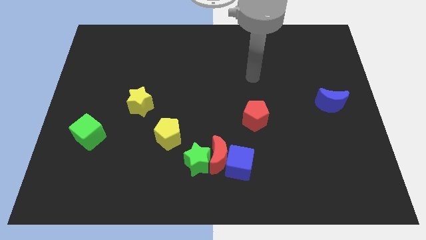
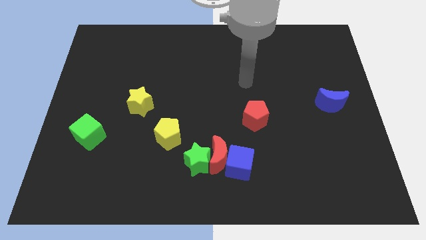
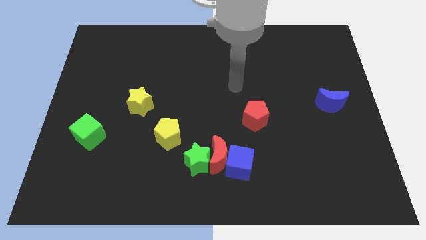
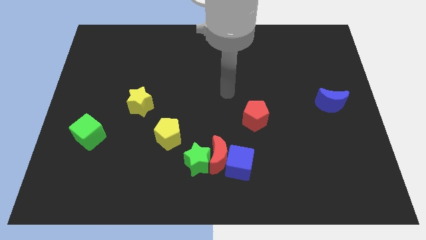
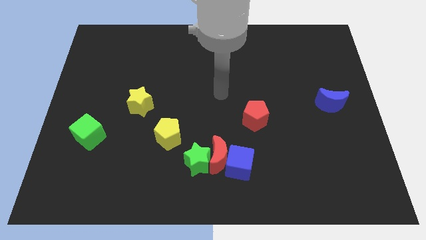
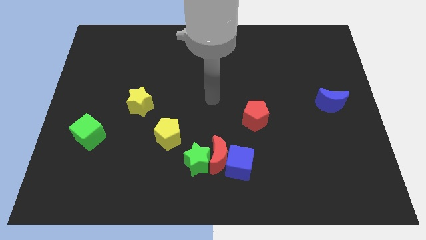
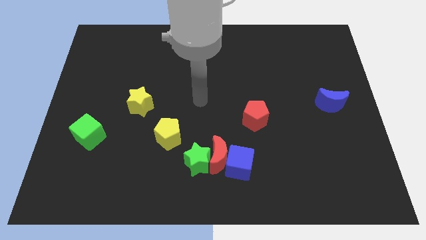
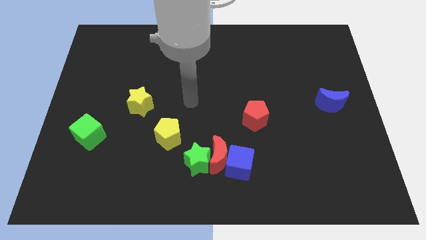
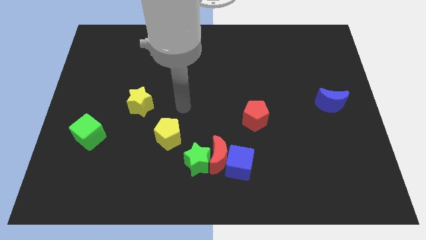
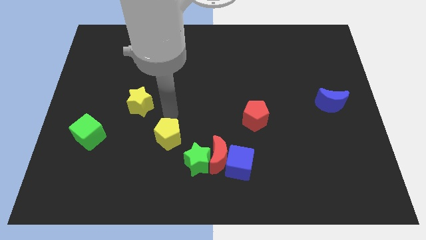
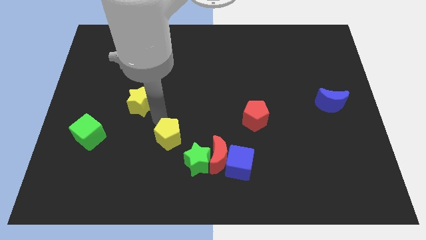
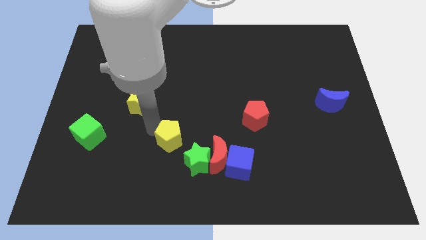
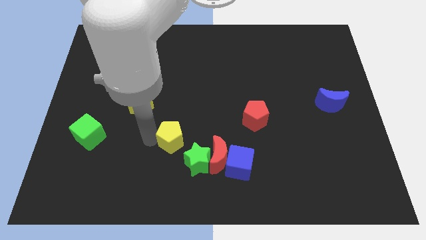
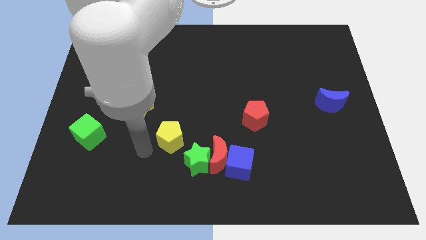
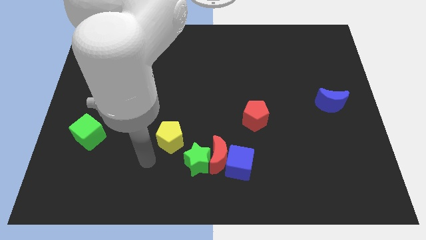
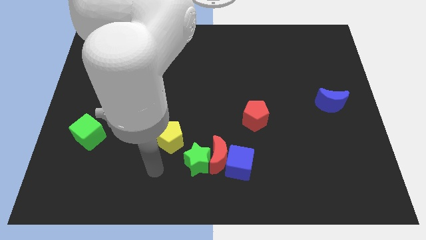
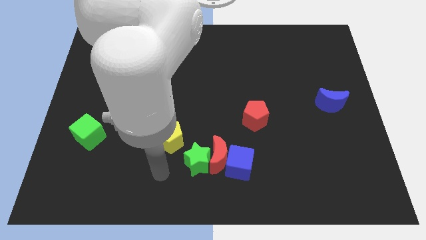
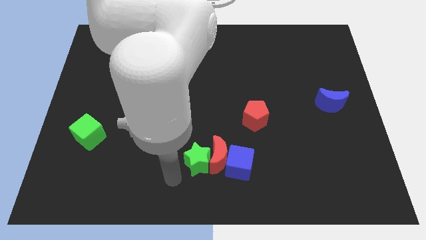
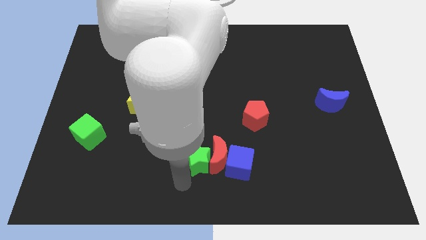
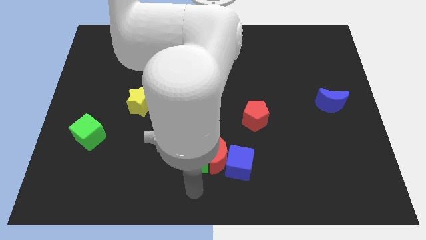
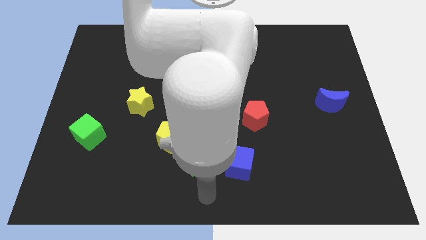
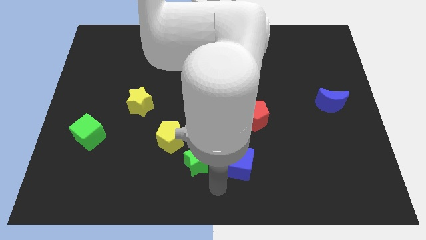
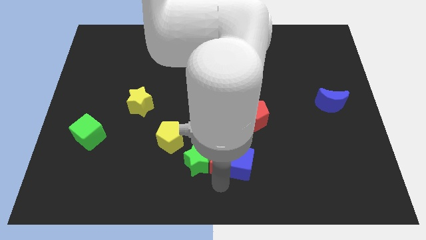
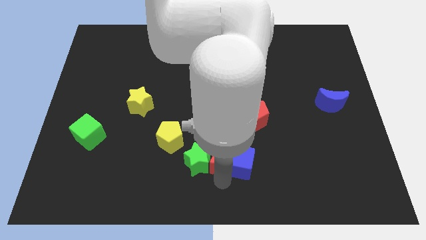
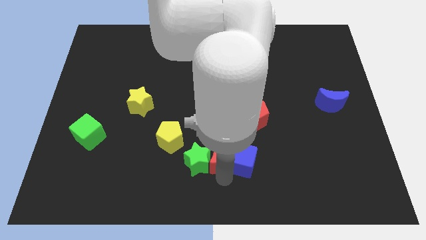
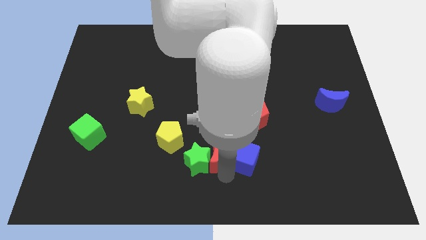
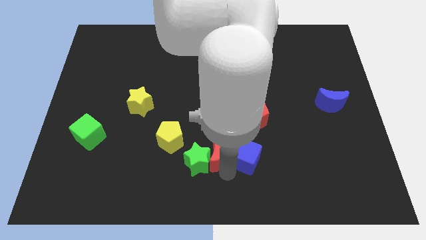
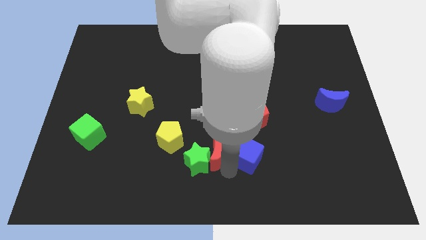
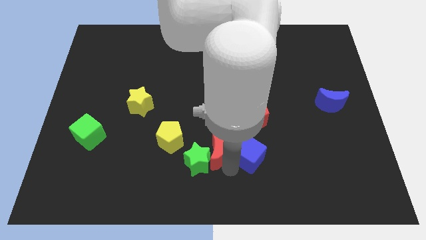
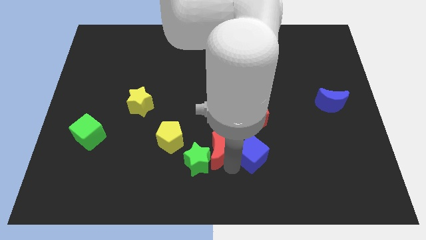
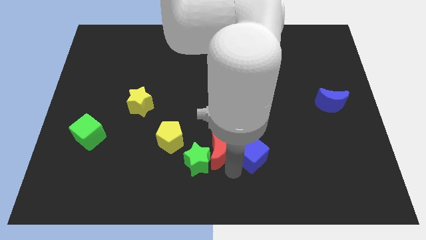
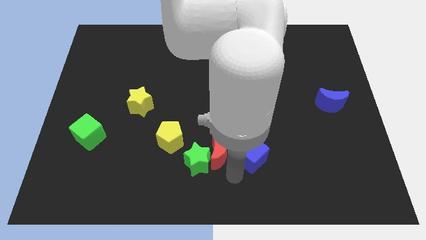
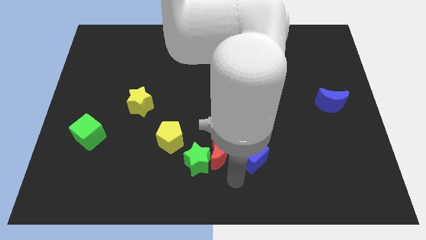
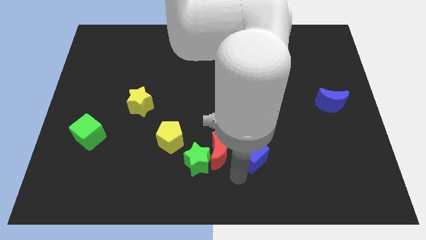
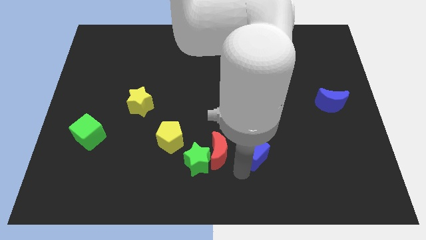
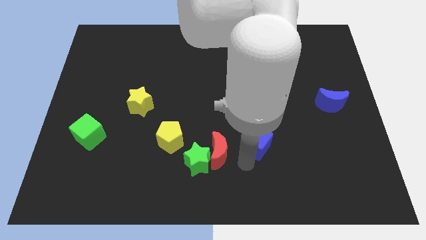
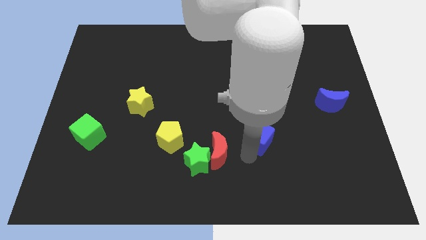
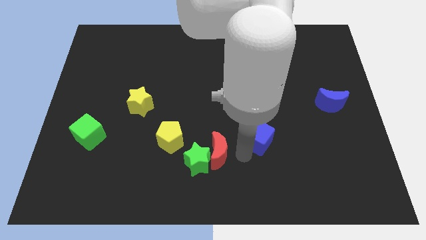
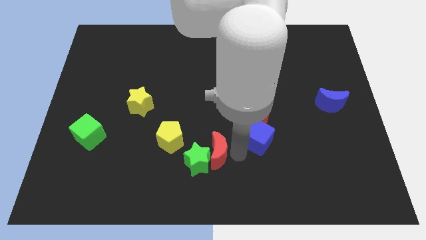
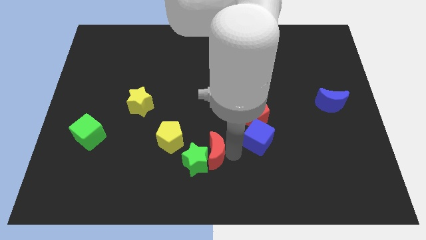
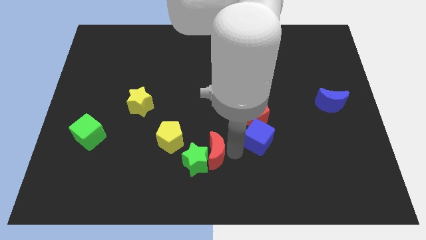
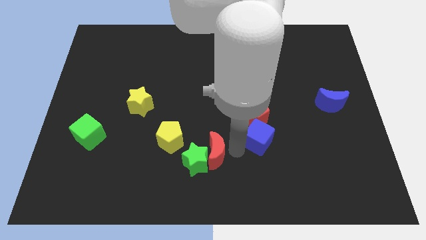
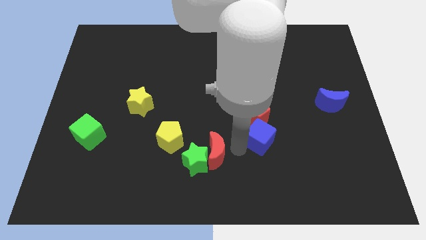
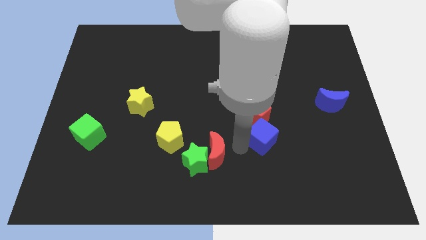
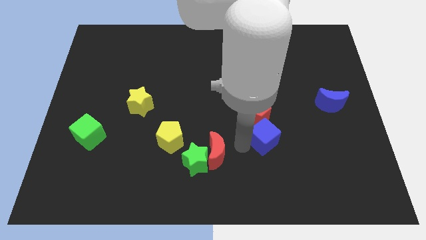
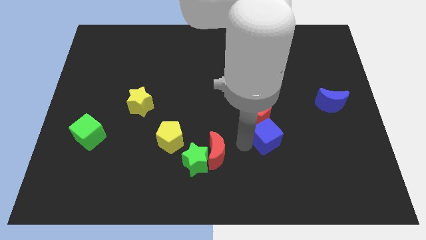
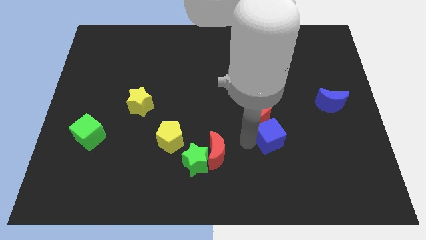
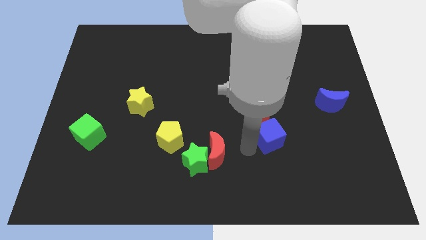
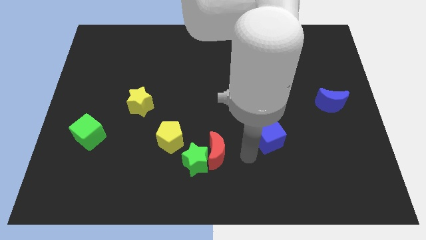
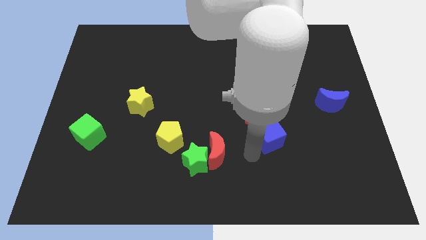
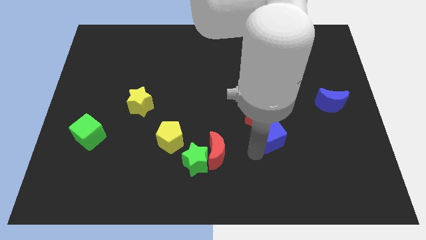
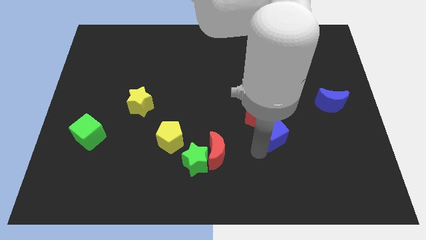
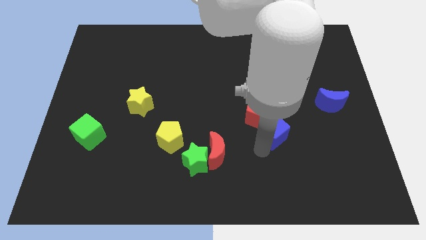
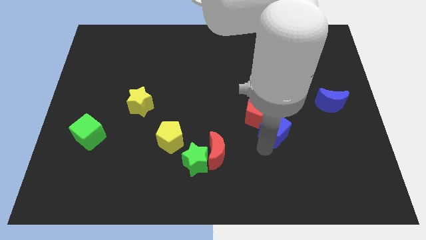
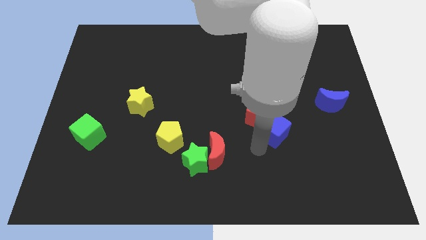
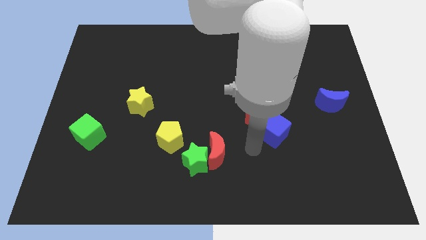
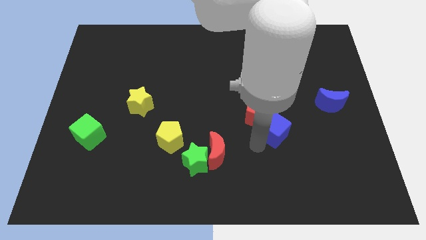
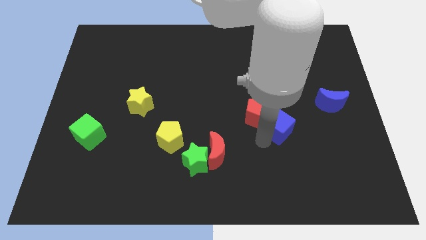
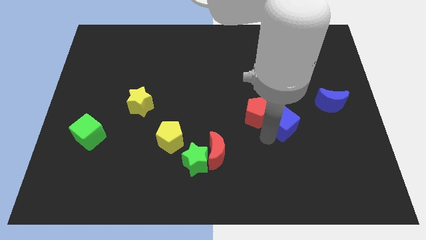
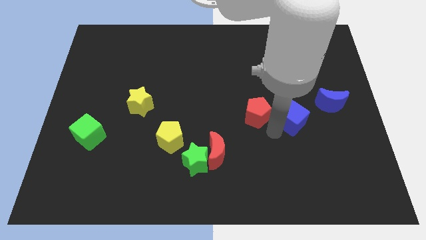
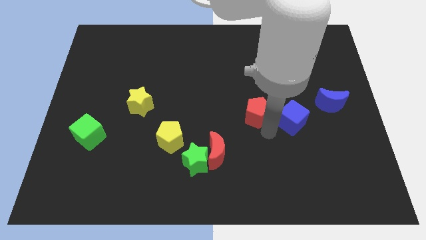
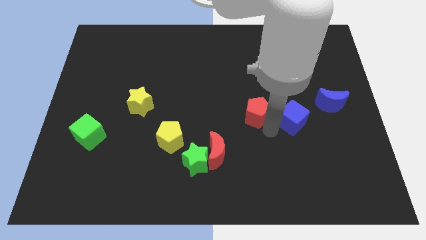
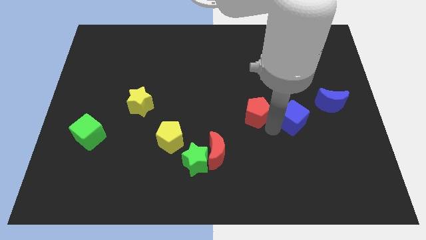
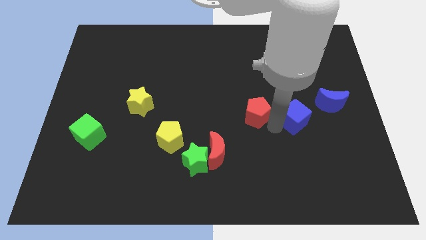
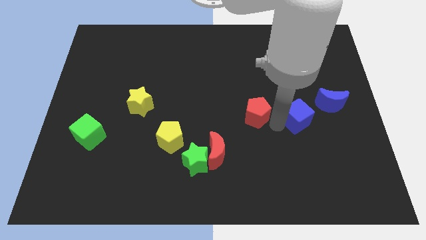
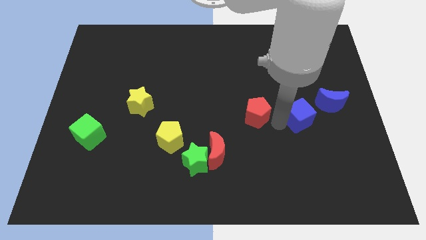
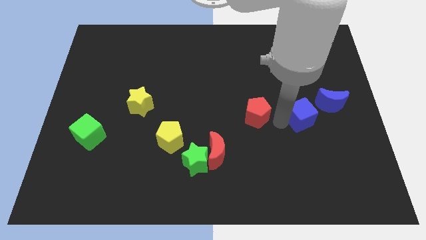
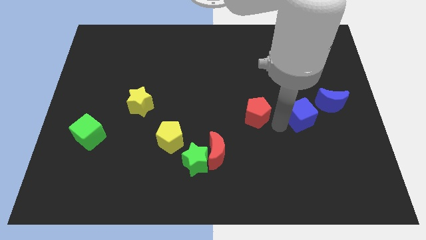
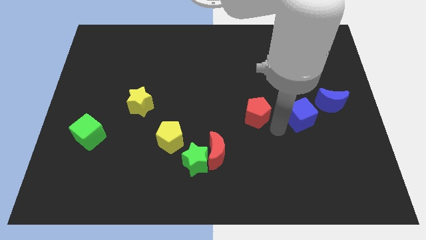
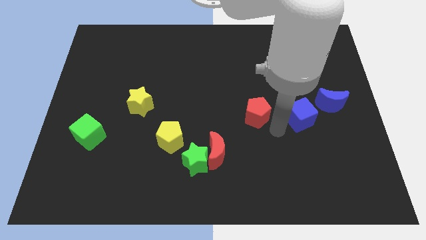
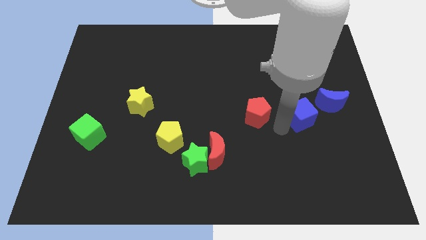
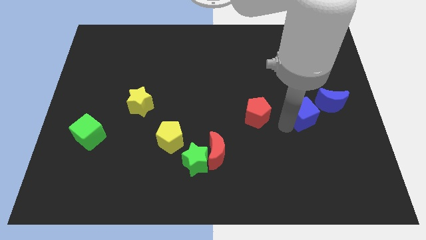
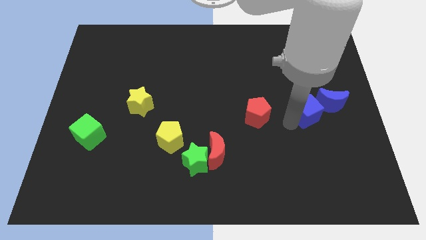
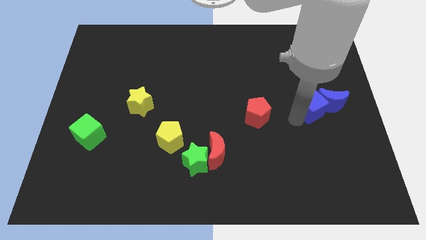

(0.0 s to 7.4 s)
push the blue cube to the blue moon
